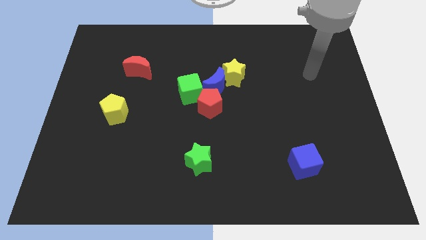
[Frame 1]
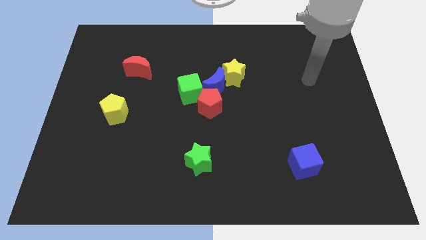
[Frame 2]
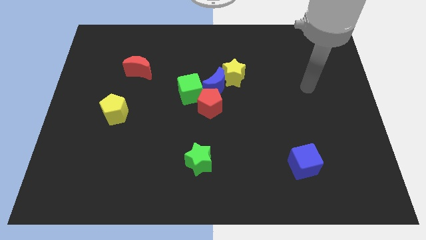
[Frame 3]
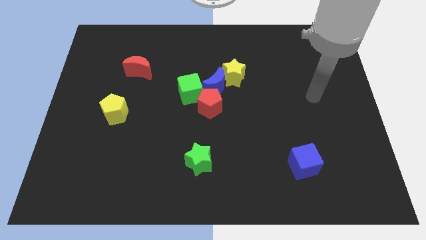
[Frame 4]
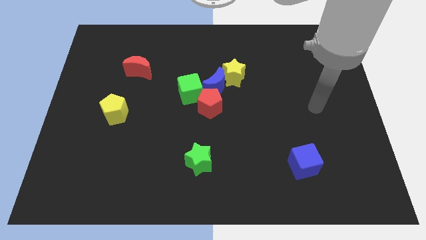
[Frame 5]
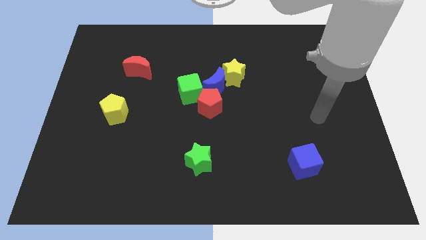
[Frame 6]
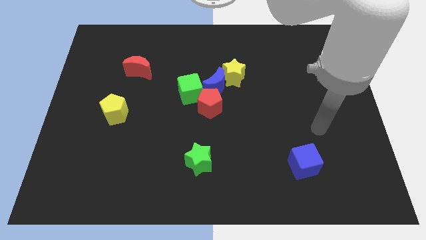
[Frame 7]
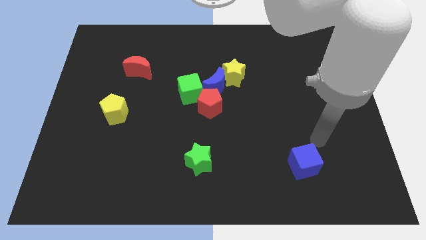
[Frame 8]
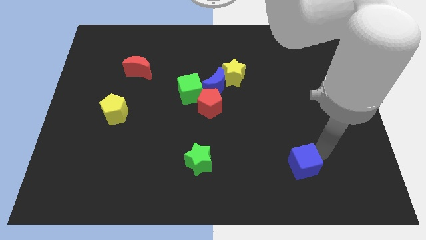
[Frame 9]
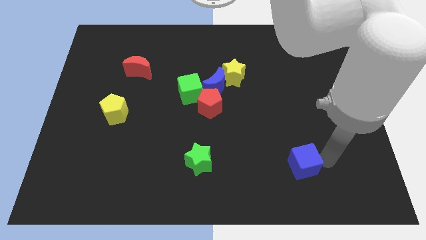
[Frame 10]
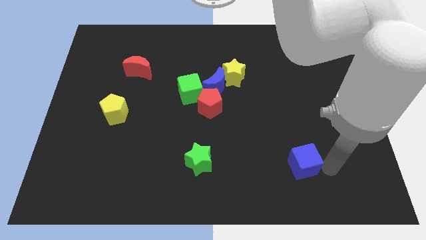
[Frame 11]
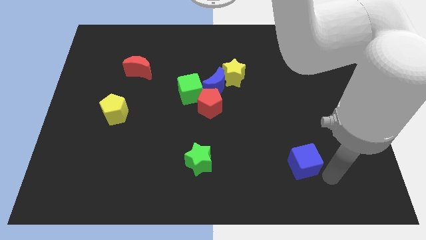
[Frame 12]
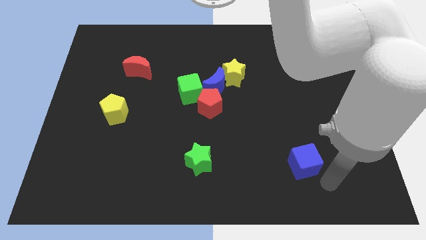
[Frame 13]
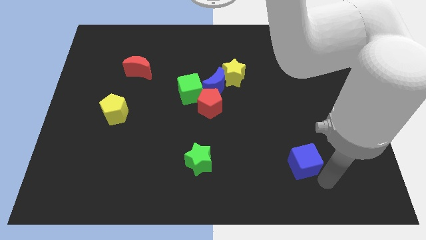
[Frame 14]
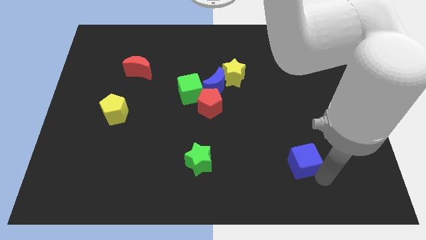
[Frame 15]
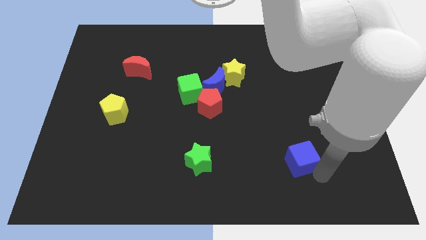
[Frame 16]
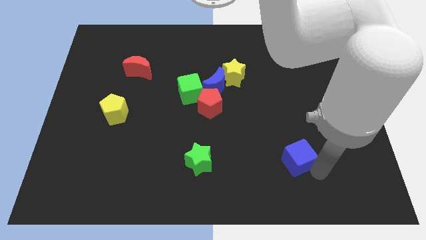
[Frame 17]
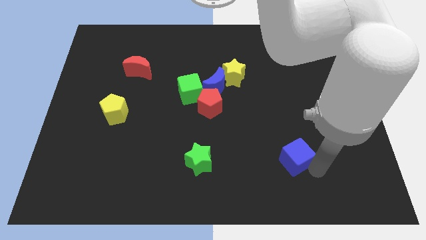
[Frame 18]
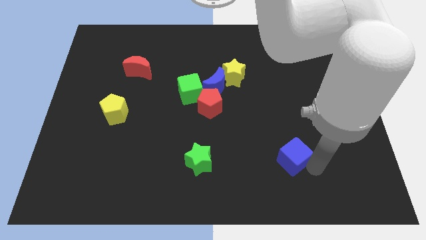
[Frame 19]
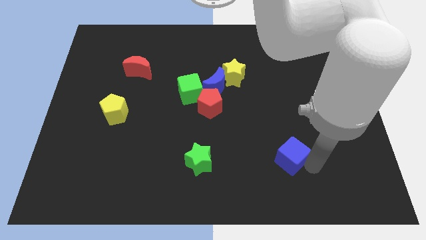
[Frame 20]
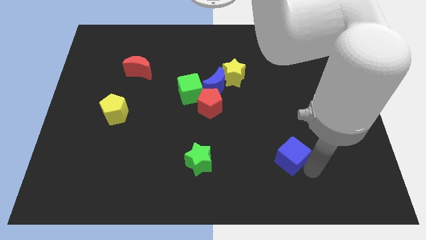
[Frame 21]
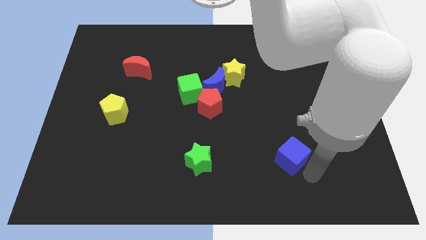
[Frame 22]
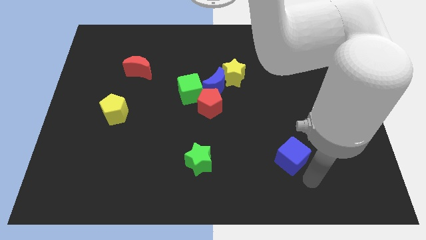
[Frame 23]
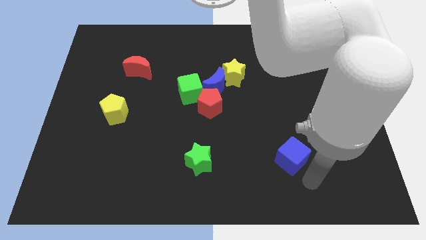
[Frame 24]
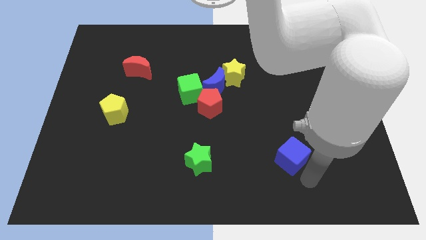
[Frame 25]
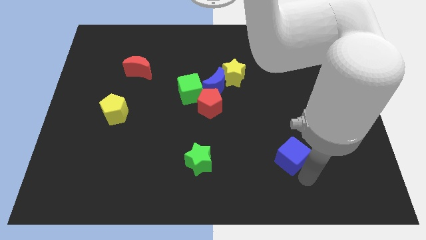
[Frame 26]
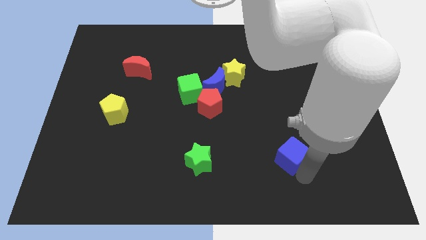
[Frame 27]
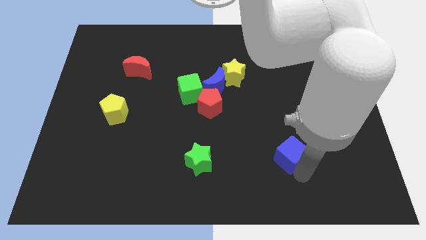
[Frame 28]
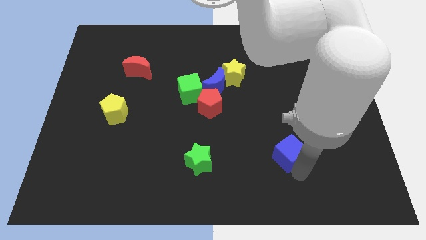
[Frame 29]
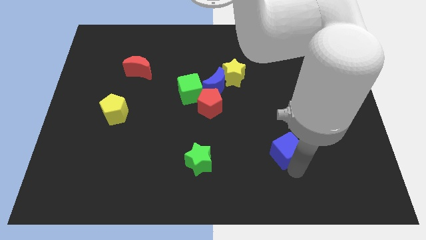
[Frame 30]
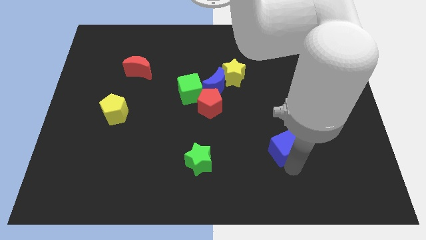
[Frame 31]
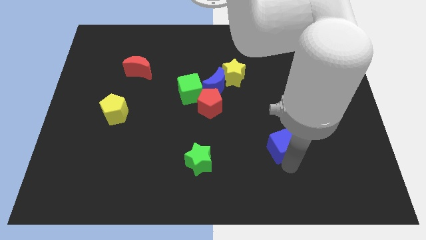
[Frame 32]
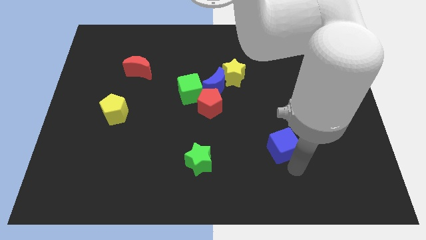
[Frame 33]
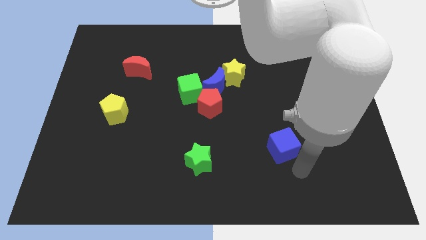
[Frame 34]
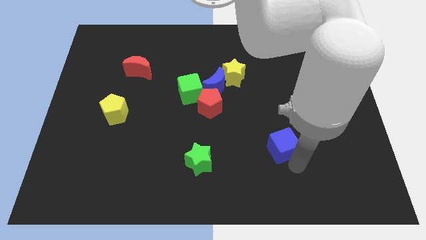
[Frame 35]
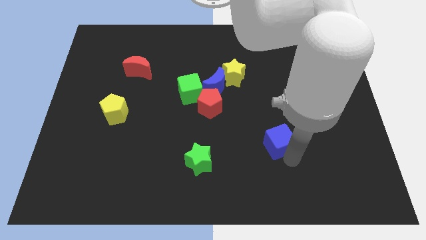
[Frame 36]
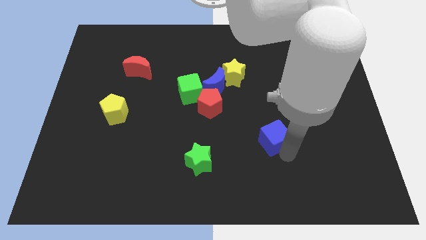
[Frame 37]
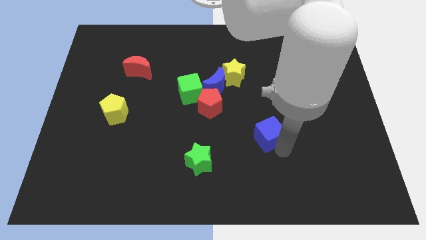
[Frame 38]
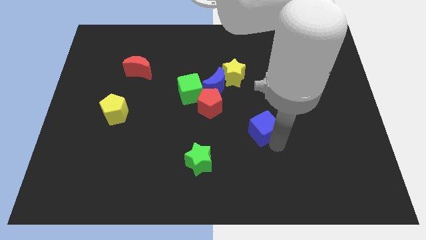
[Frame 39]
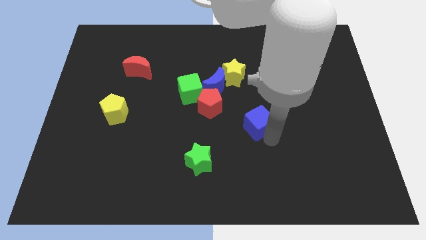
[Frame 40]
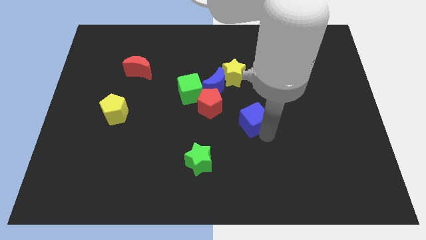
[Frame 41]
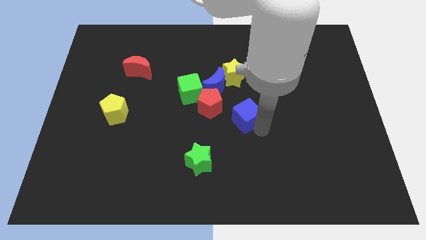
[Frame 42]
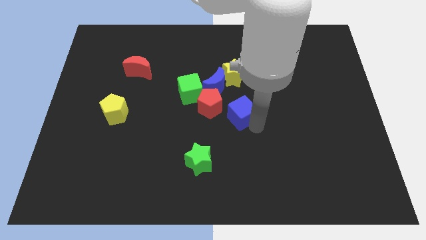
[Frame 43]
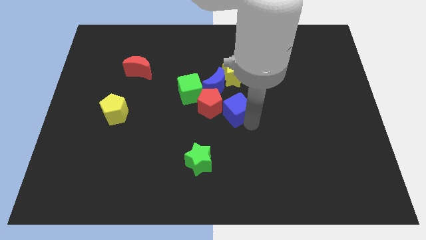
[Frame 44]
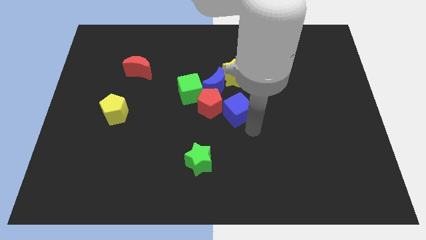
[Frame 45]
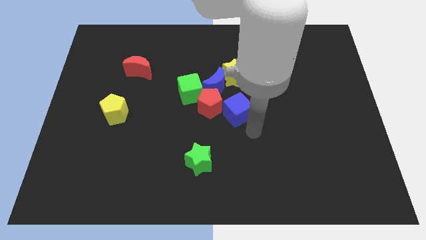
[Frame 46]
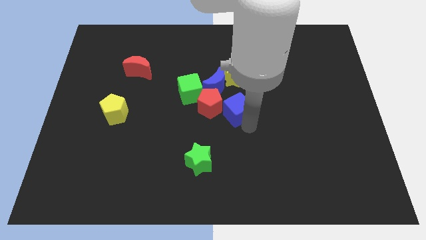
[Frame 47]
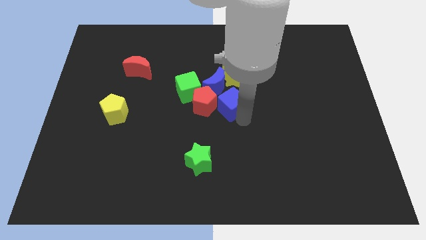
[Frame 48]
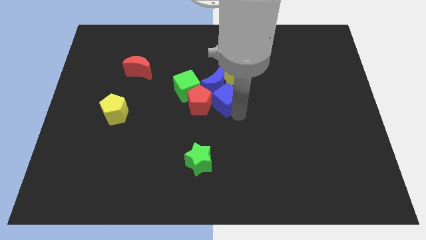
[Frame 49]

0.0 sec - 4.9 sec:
push the blue cube to the blue moon

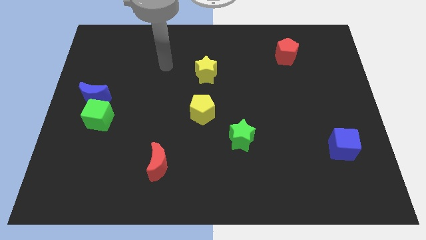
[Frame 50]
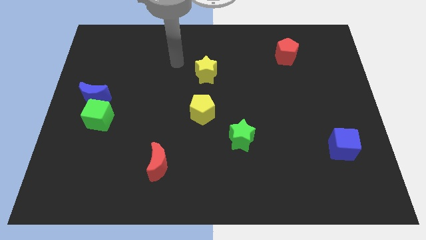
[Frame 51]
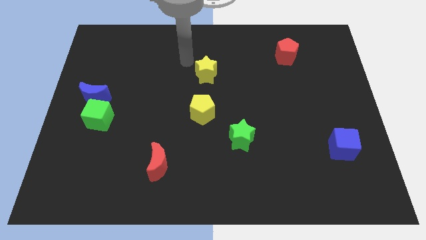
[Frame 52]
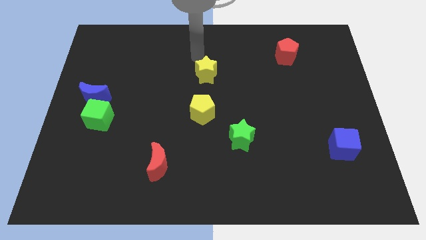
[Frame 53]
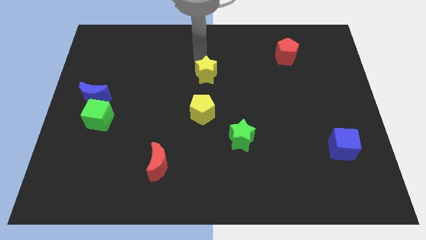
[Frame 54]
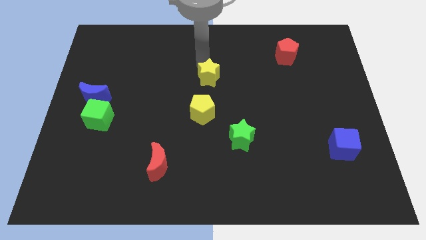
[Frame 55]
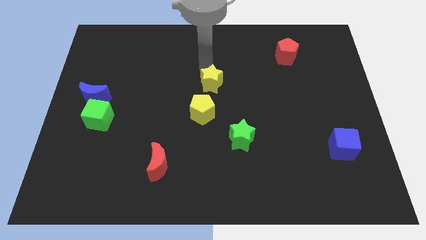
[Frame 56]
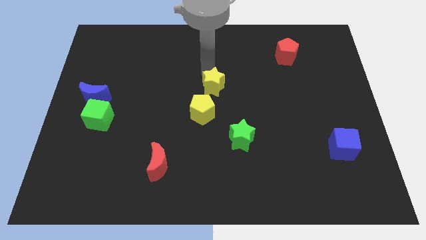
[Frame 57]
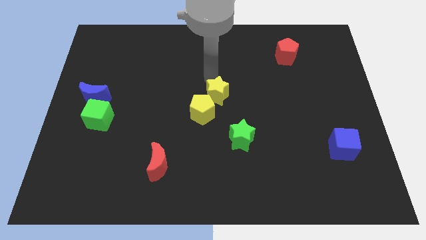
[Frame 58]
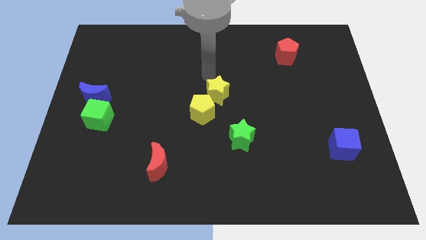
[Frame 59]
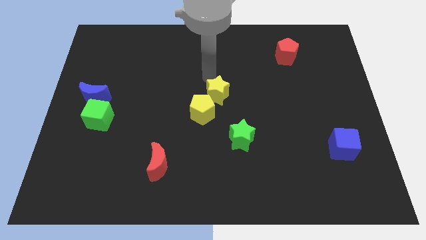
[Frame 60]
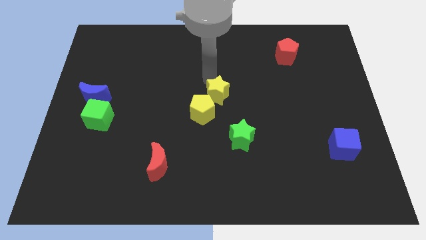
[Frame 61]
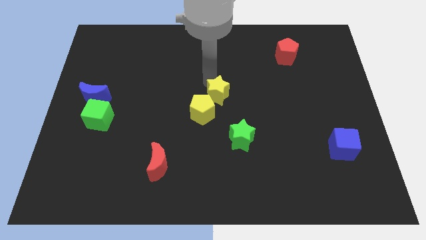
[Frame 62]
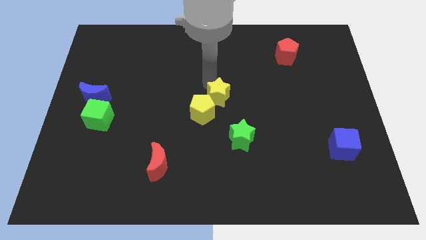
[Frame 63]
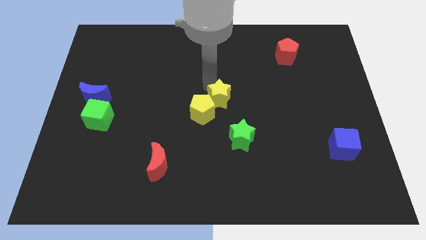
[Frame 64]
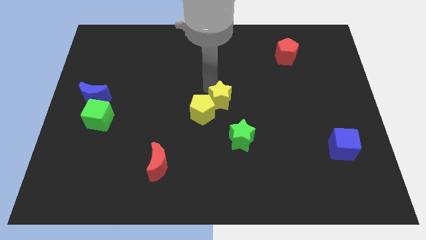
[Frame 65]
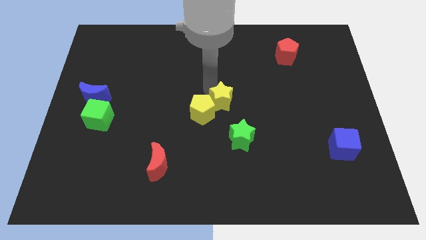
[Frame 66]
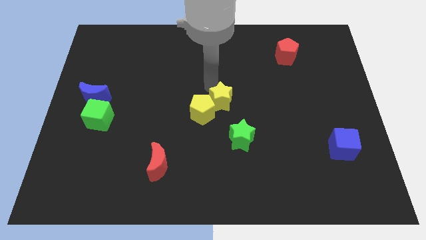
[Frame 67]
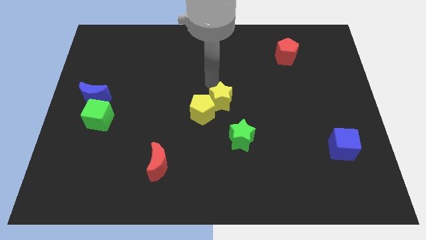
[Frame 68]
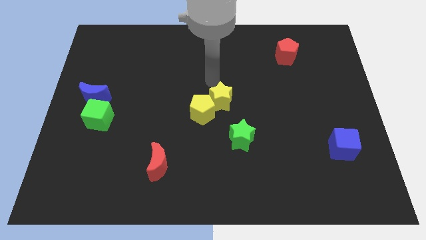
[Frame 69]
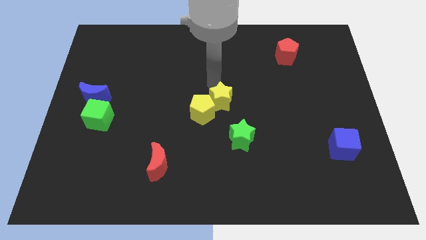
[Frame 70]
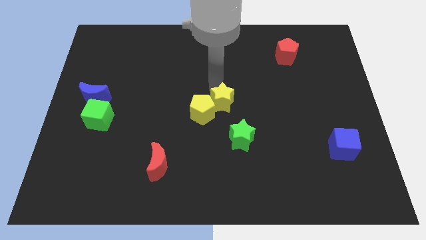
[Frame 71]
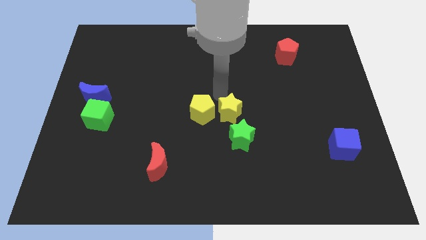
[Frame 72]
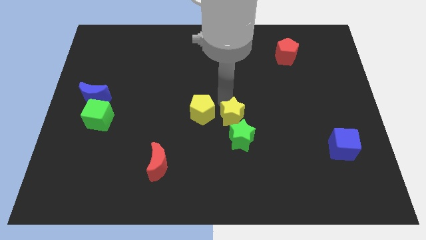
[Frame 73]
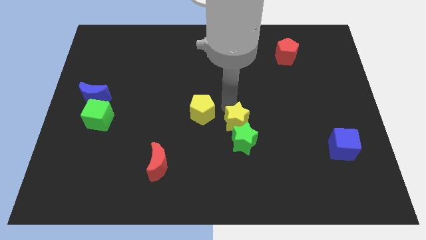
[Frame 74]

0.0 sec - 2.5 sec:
slide the yellow star to the green star

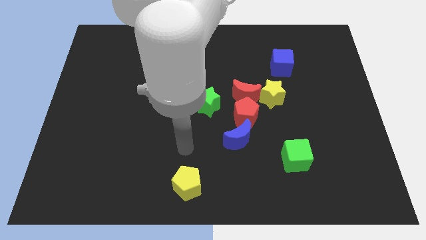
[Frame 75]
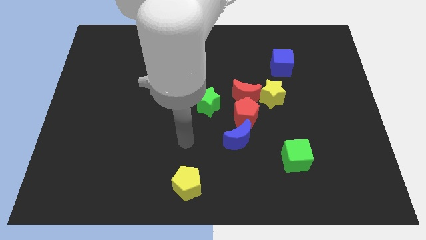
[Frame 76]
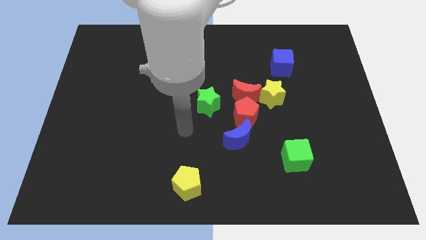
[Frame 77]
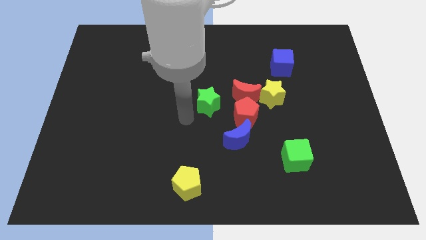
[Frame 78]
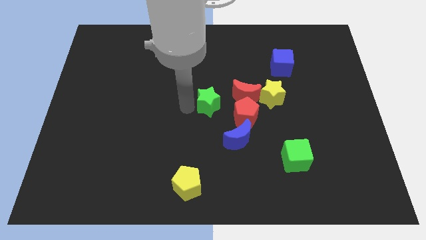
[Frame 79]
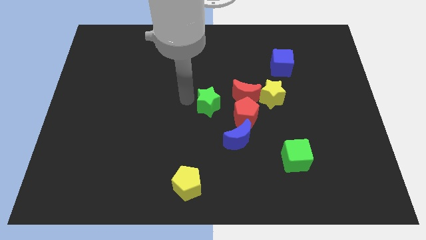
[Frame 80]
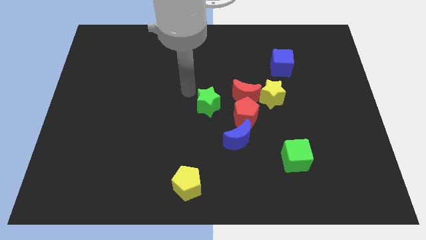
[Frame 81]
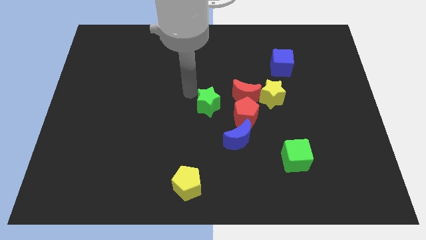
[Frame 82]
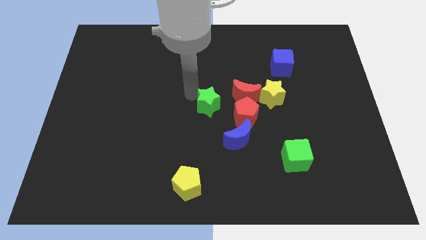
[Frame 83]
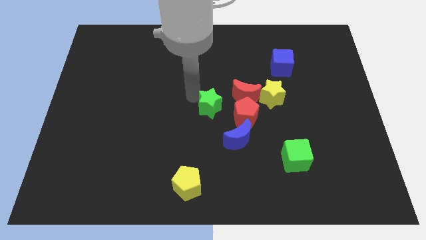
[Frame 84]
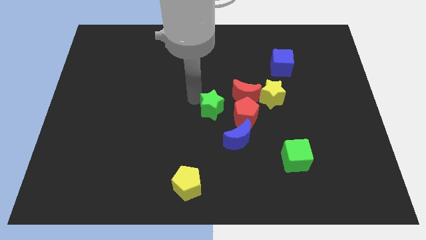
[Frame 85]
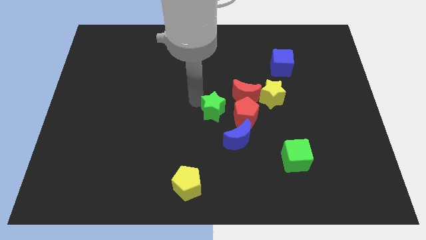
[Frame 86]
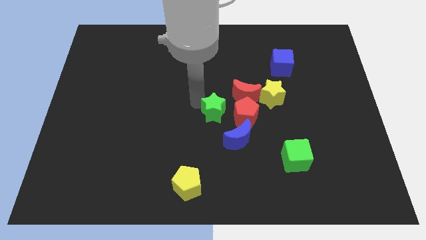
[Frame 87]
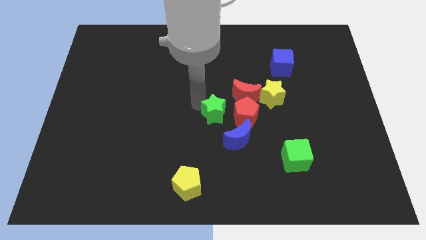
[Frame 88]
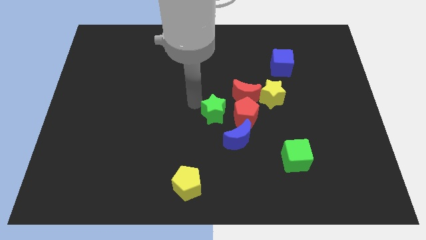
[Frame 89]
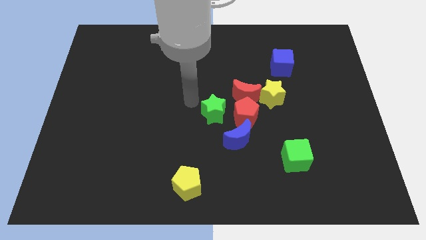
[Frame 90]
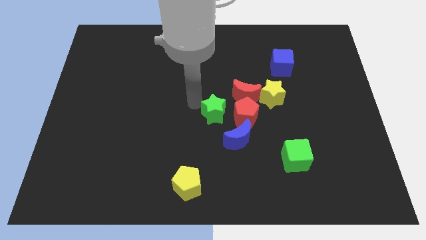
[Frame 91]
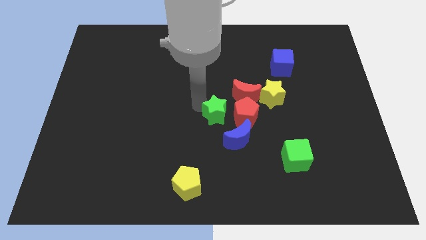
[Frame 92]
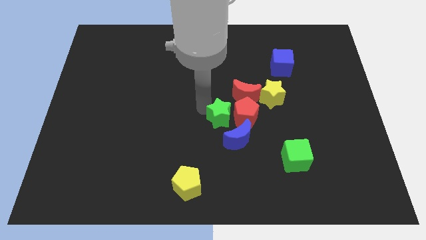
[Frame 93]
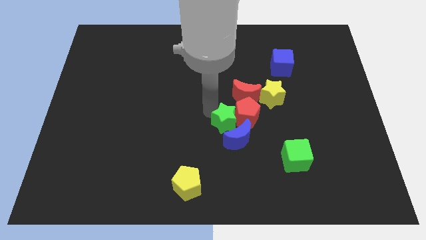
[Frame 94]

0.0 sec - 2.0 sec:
move the green star close to the blue moon
